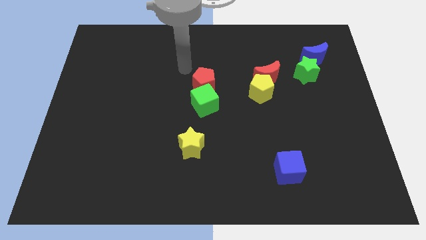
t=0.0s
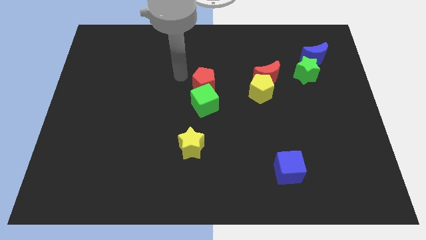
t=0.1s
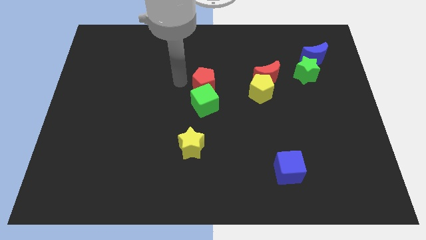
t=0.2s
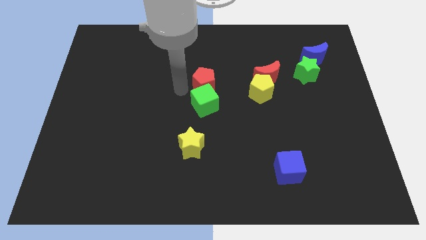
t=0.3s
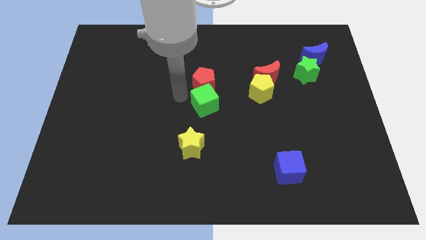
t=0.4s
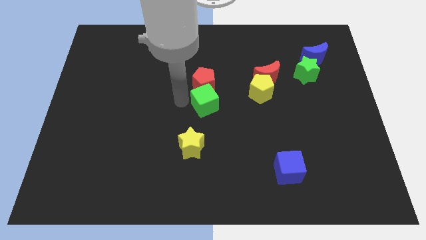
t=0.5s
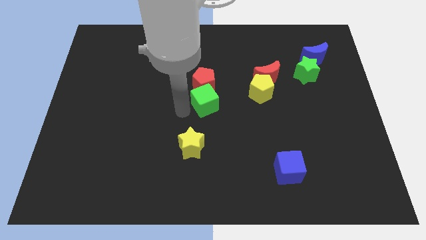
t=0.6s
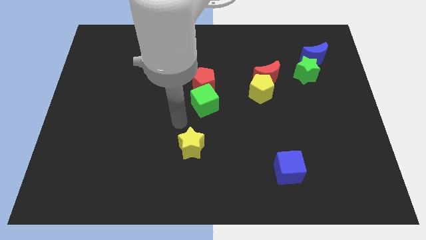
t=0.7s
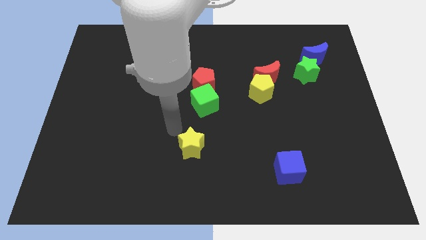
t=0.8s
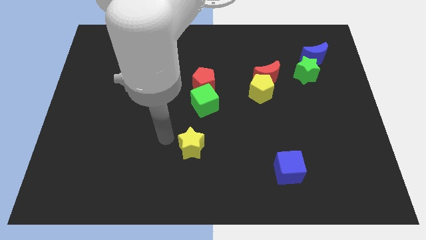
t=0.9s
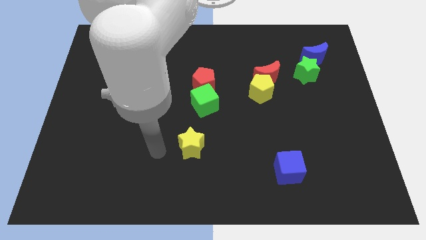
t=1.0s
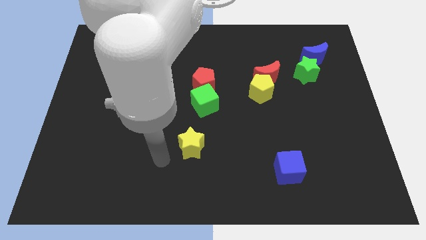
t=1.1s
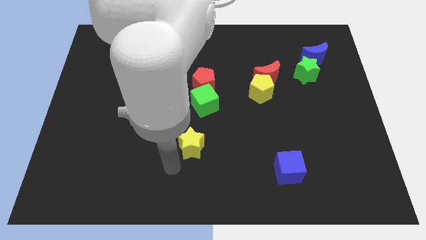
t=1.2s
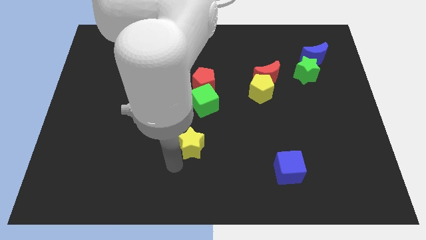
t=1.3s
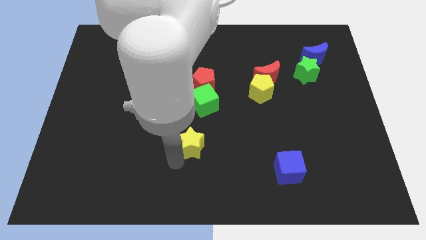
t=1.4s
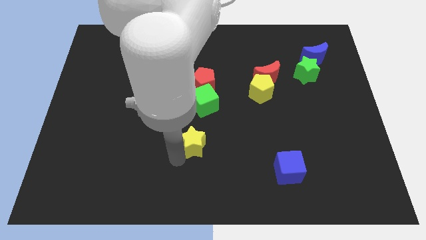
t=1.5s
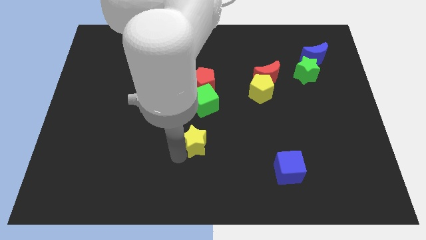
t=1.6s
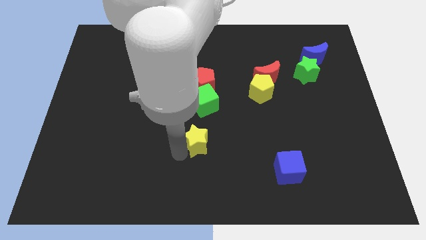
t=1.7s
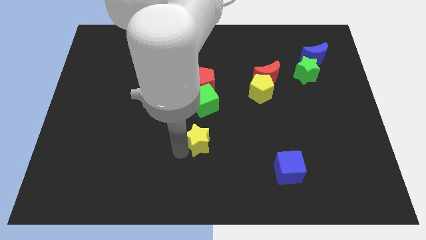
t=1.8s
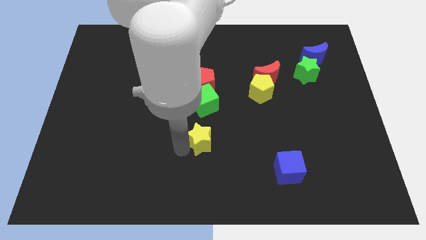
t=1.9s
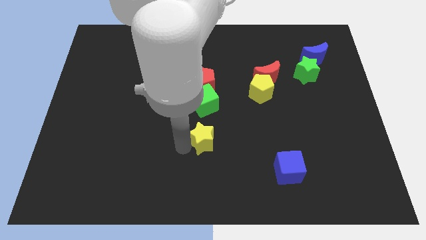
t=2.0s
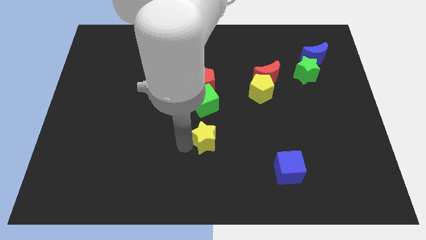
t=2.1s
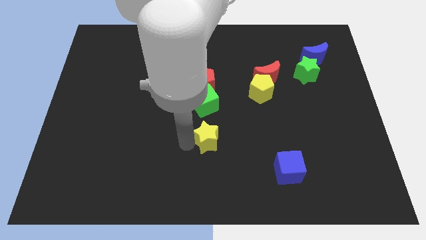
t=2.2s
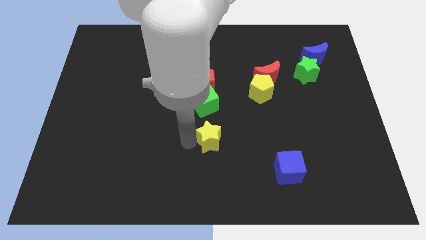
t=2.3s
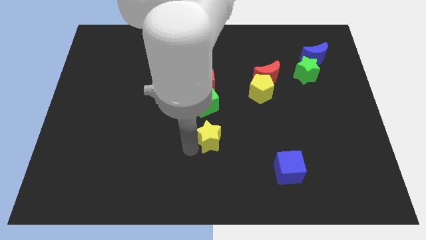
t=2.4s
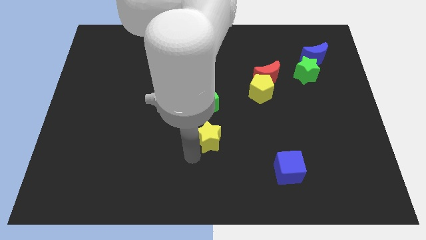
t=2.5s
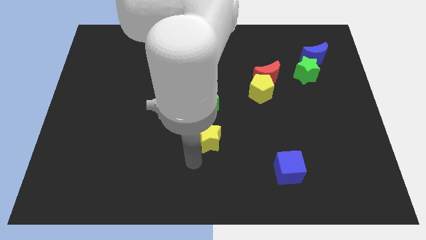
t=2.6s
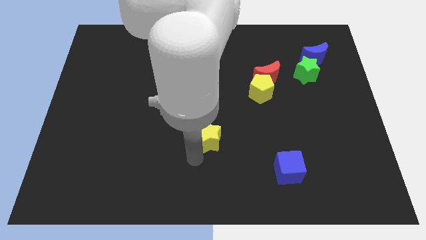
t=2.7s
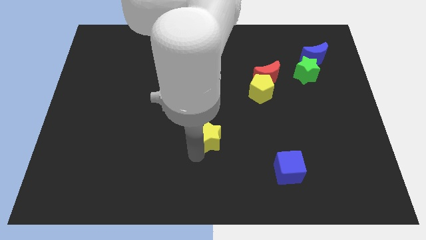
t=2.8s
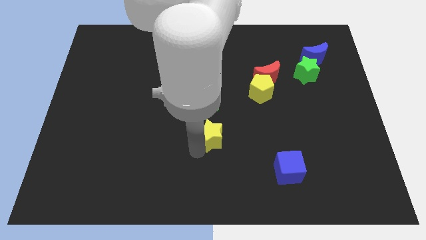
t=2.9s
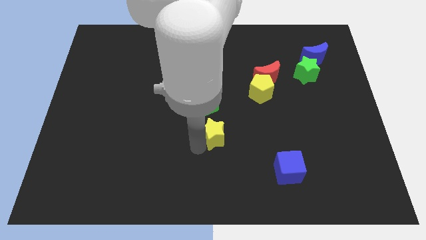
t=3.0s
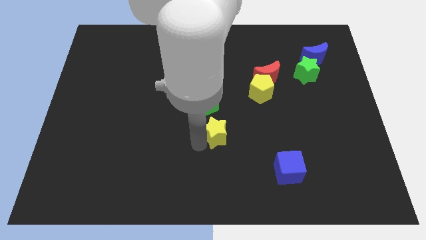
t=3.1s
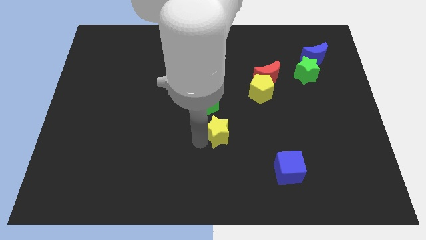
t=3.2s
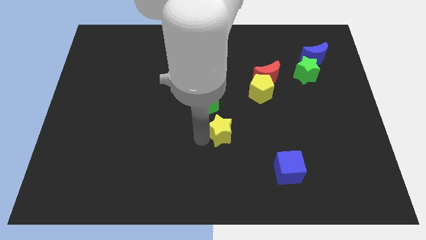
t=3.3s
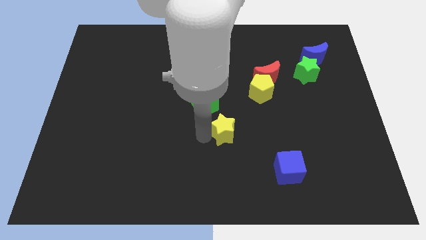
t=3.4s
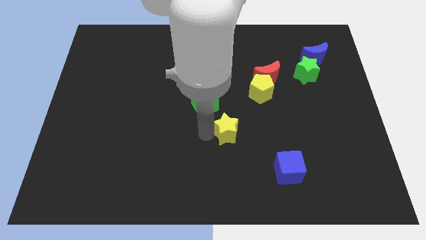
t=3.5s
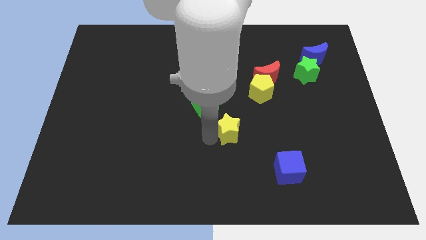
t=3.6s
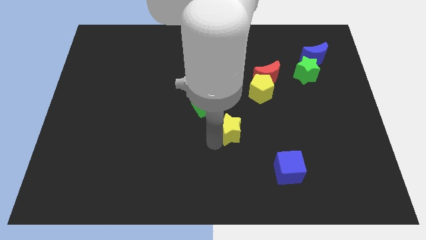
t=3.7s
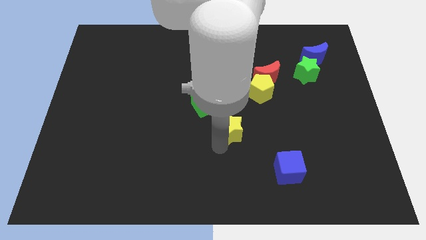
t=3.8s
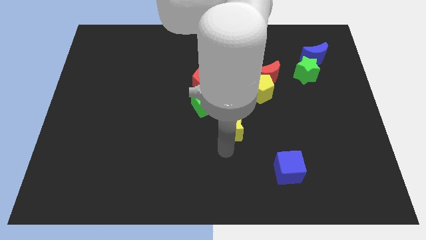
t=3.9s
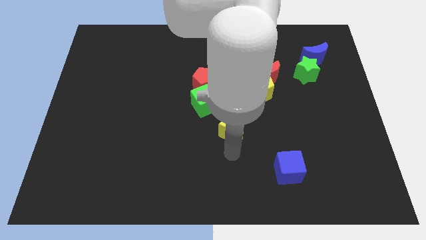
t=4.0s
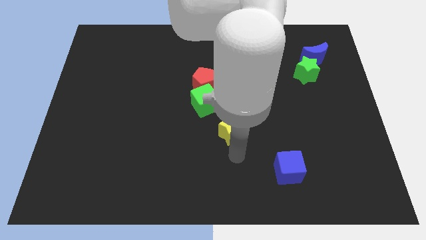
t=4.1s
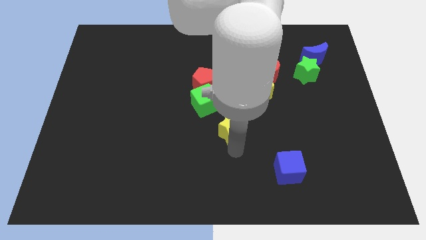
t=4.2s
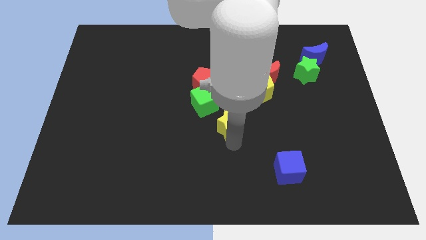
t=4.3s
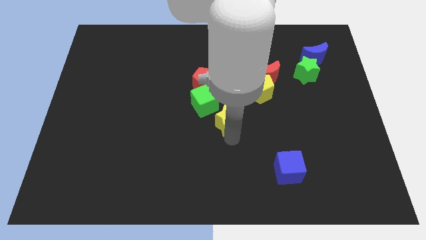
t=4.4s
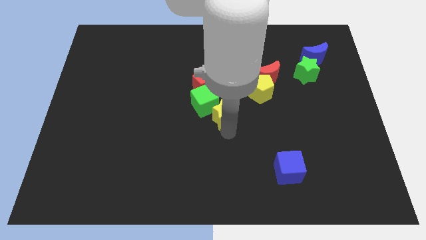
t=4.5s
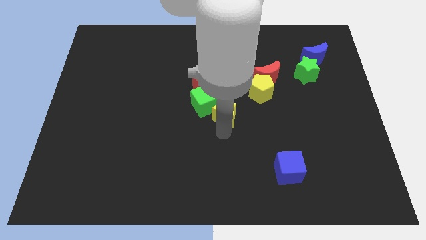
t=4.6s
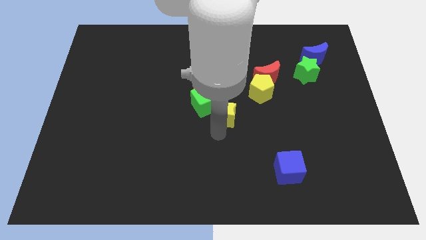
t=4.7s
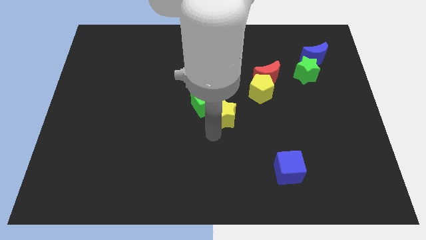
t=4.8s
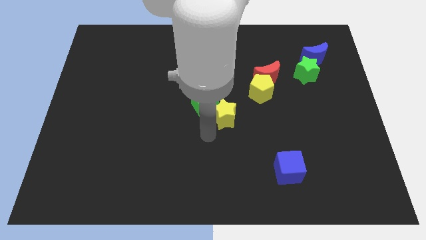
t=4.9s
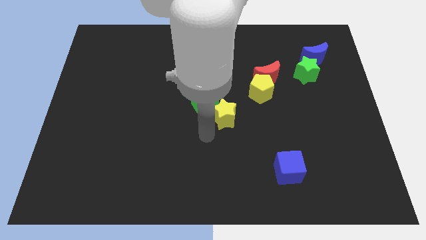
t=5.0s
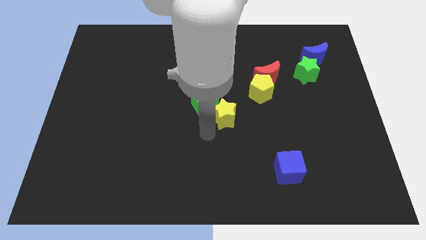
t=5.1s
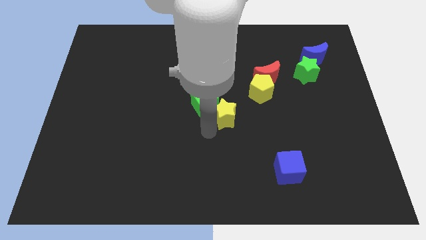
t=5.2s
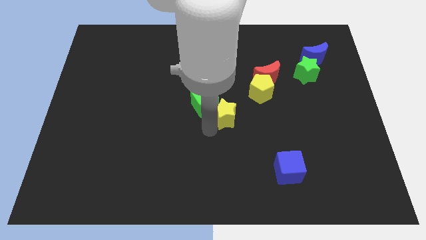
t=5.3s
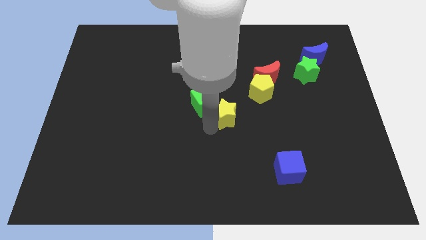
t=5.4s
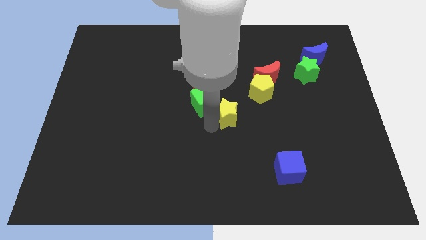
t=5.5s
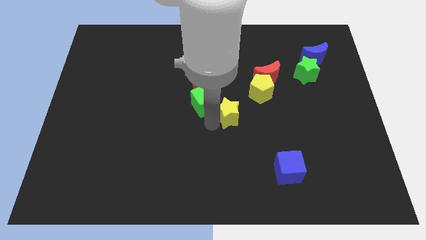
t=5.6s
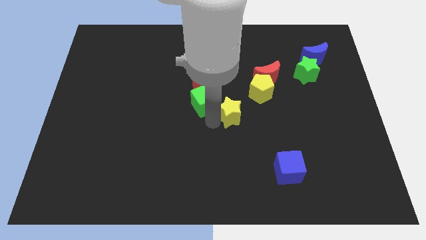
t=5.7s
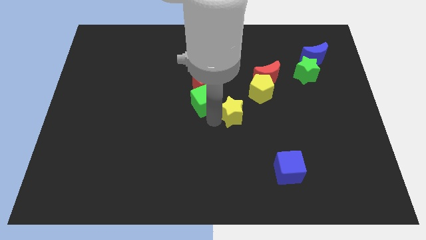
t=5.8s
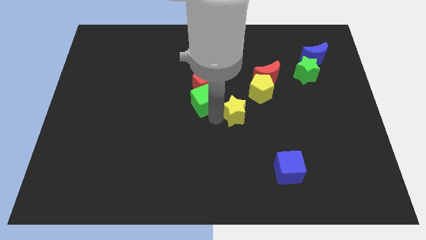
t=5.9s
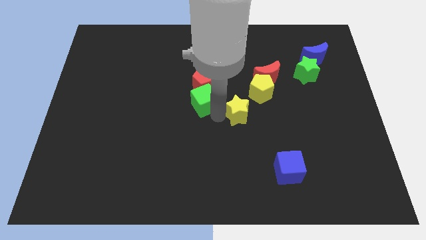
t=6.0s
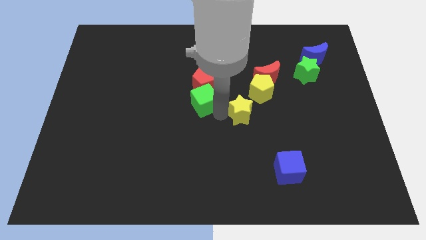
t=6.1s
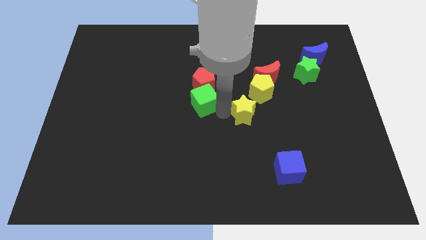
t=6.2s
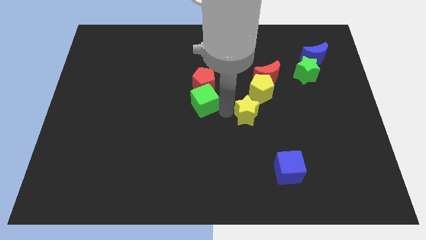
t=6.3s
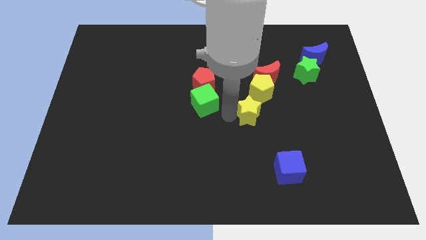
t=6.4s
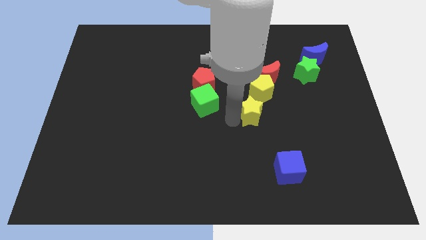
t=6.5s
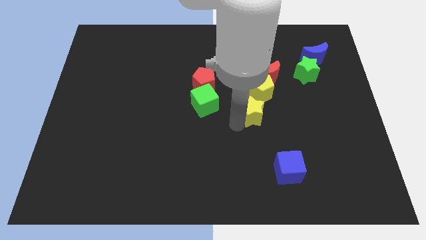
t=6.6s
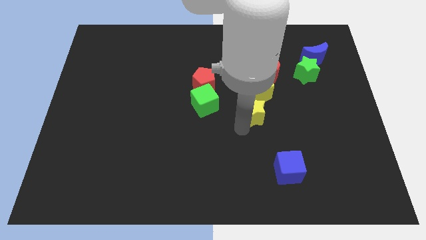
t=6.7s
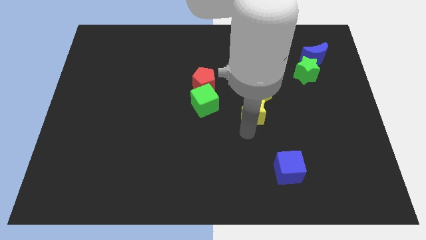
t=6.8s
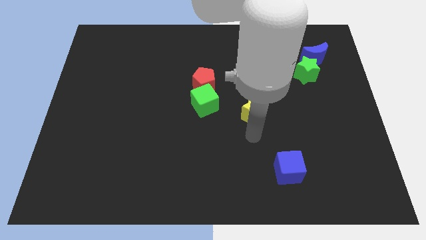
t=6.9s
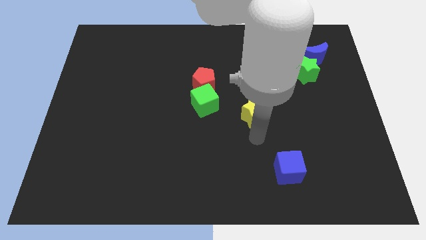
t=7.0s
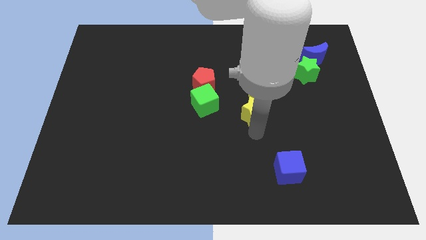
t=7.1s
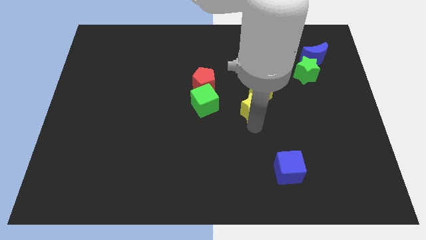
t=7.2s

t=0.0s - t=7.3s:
move the yellow star diagonally down and to the left of the red moon
